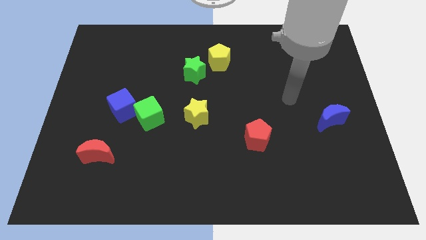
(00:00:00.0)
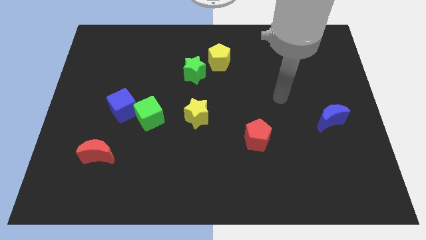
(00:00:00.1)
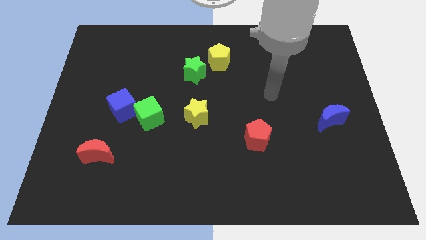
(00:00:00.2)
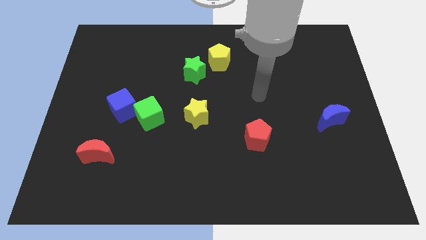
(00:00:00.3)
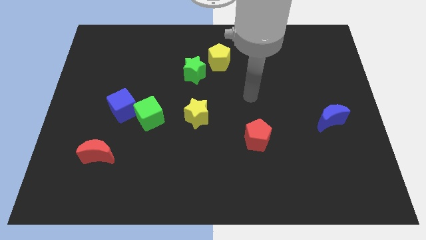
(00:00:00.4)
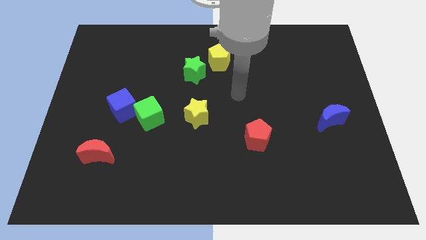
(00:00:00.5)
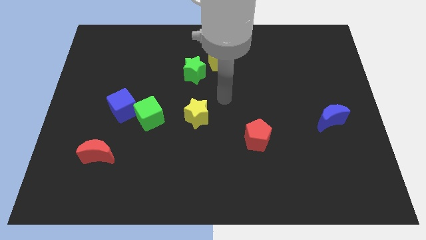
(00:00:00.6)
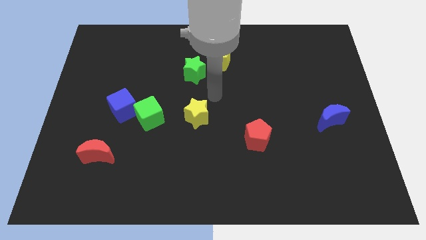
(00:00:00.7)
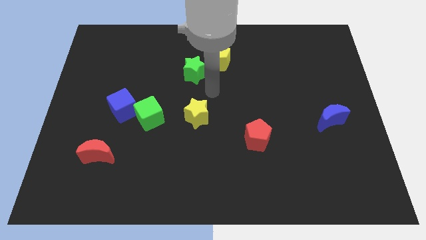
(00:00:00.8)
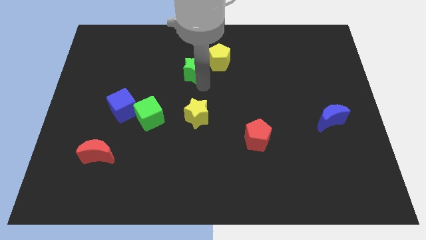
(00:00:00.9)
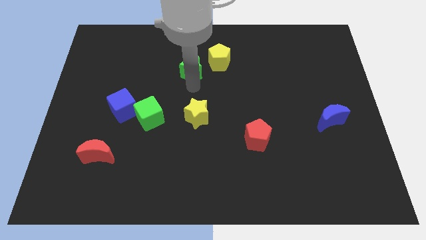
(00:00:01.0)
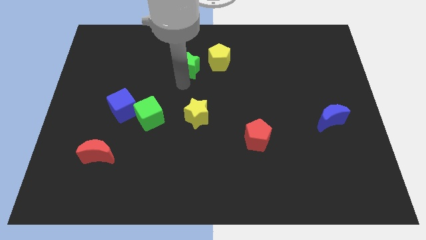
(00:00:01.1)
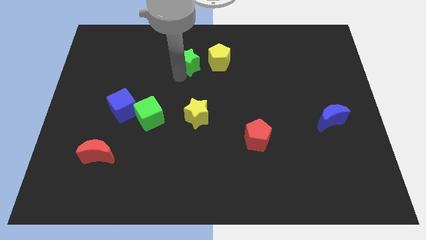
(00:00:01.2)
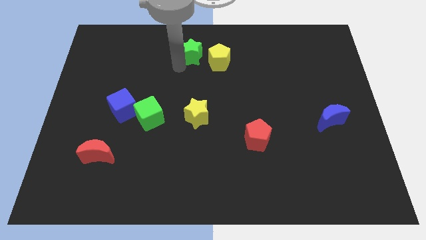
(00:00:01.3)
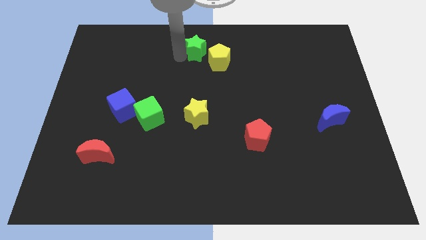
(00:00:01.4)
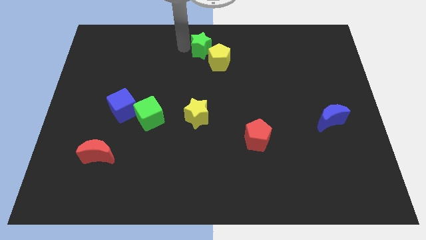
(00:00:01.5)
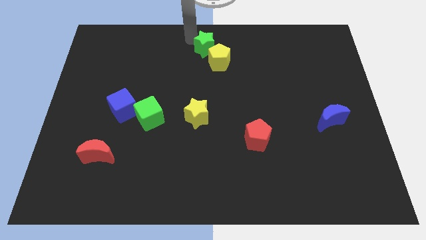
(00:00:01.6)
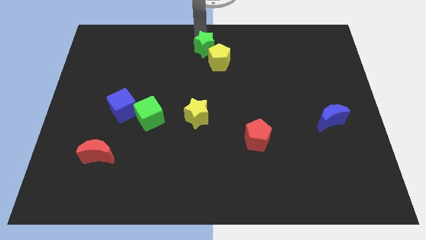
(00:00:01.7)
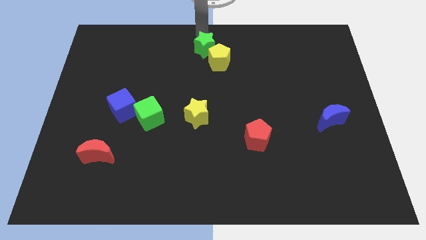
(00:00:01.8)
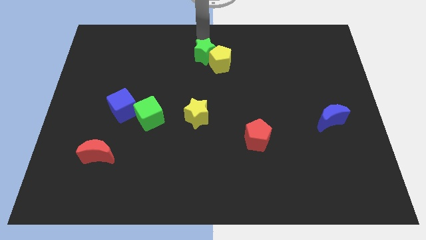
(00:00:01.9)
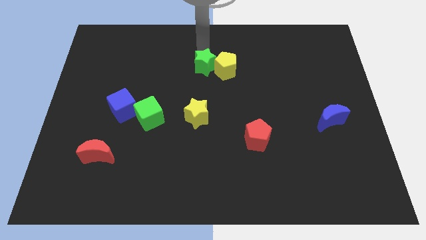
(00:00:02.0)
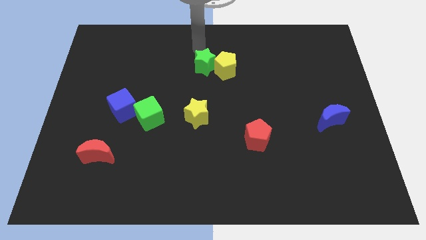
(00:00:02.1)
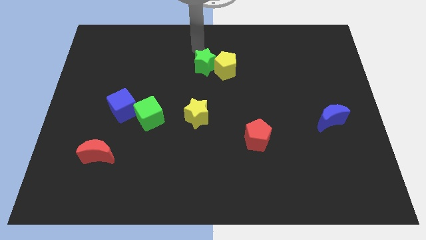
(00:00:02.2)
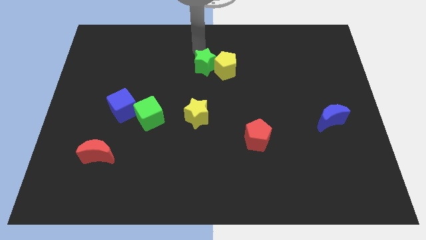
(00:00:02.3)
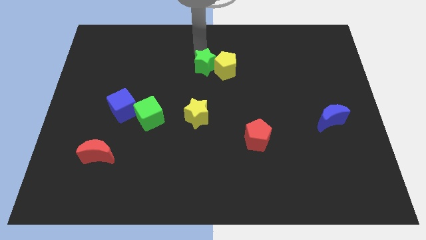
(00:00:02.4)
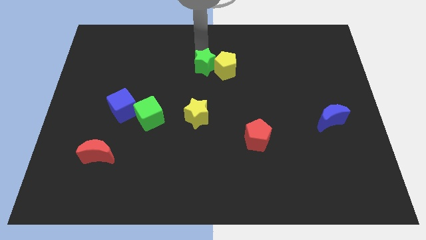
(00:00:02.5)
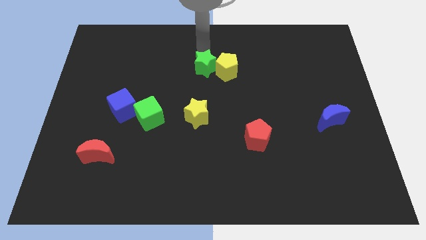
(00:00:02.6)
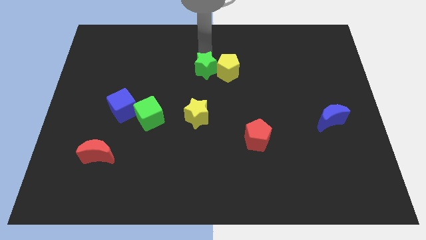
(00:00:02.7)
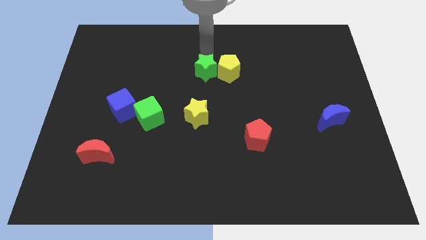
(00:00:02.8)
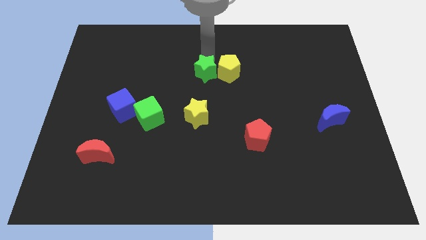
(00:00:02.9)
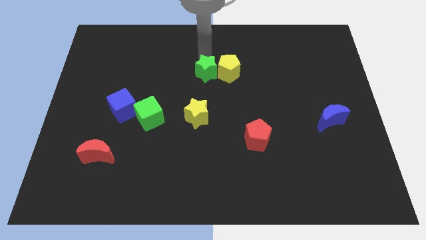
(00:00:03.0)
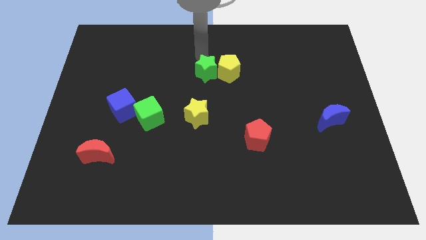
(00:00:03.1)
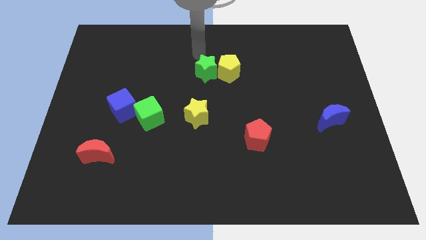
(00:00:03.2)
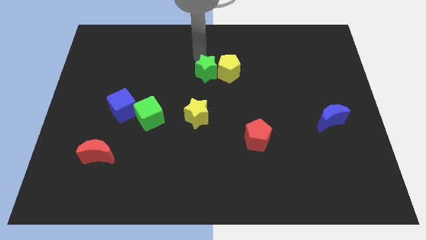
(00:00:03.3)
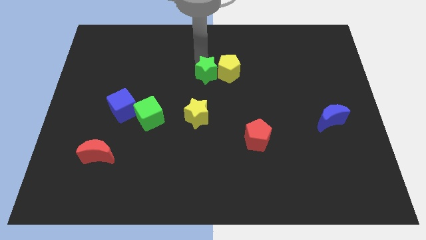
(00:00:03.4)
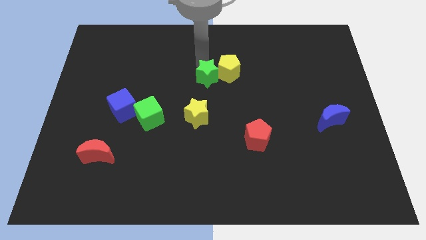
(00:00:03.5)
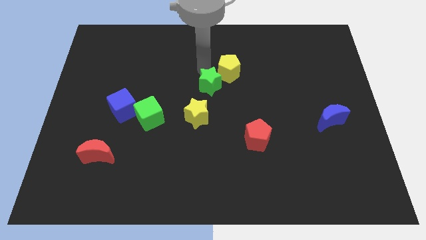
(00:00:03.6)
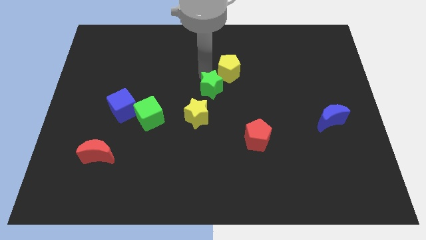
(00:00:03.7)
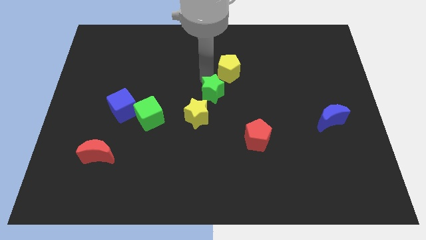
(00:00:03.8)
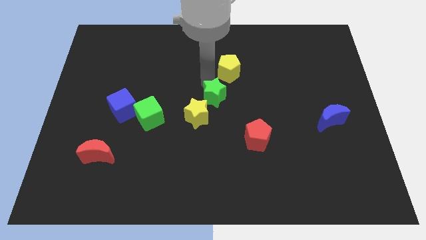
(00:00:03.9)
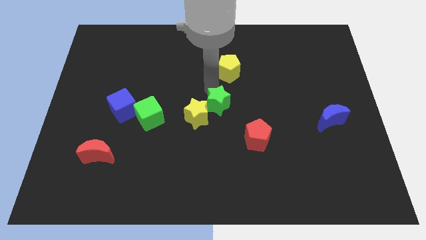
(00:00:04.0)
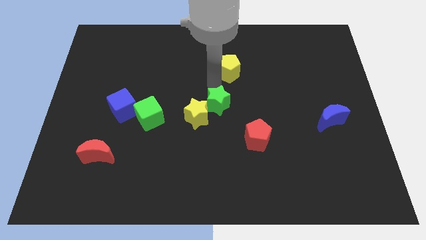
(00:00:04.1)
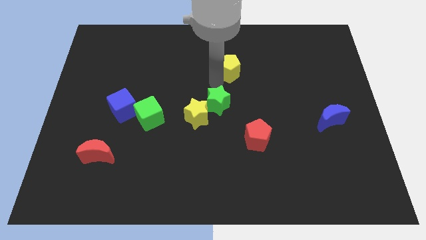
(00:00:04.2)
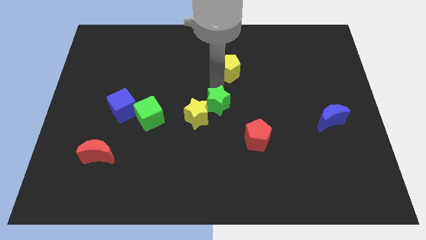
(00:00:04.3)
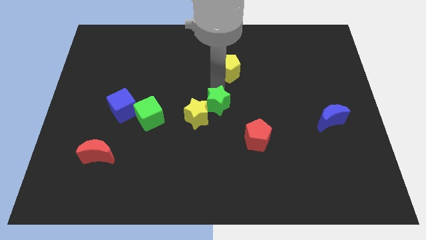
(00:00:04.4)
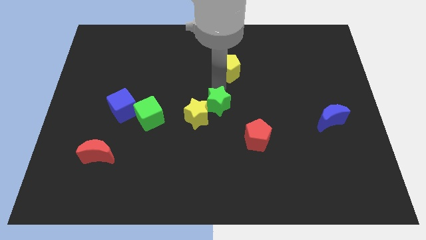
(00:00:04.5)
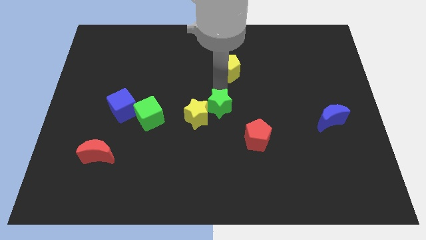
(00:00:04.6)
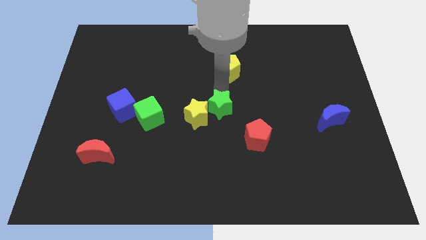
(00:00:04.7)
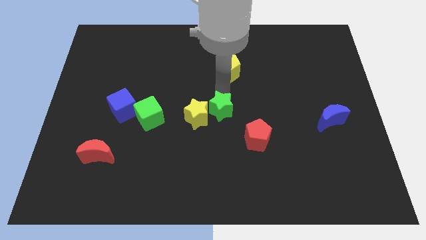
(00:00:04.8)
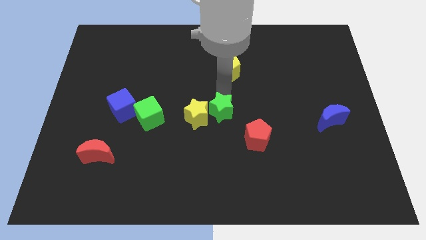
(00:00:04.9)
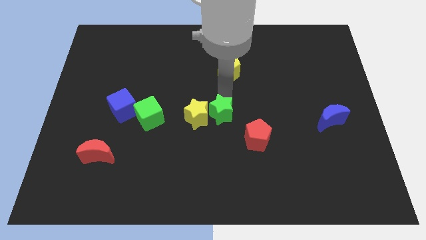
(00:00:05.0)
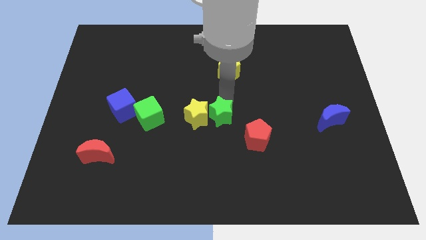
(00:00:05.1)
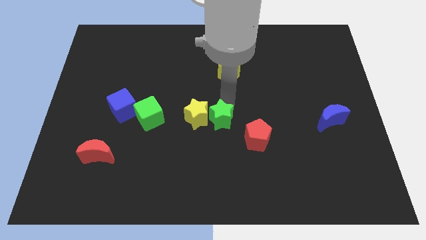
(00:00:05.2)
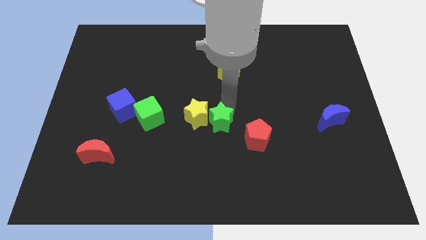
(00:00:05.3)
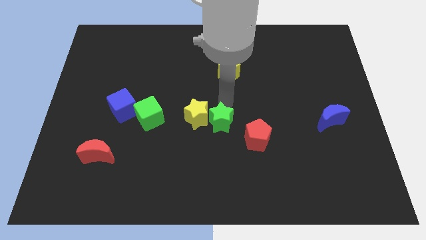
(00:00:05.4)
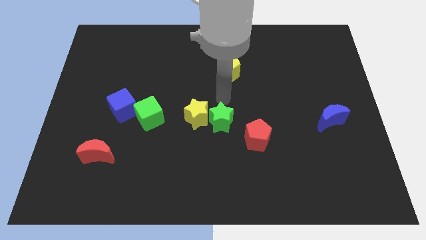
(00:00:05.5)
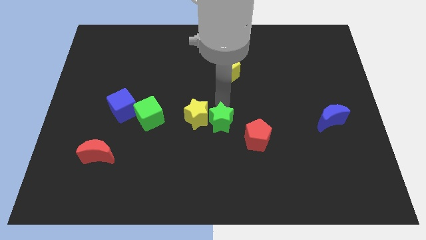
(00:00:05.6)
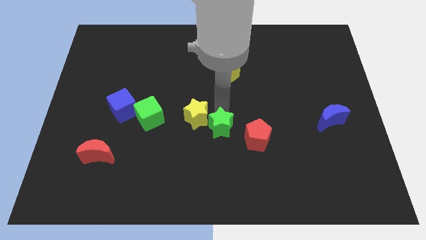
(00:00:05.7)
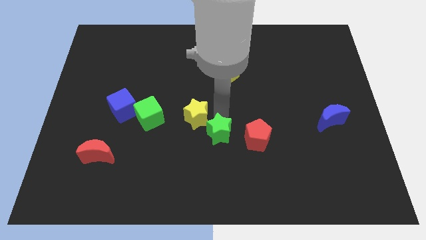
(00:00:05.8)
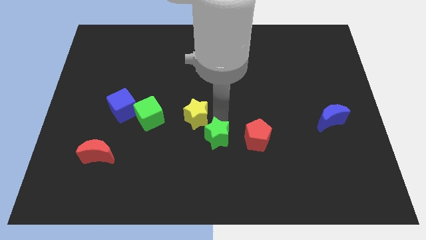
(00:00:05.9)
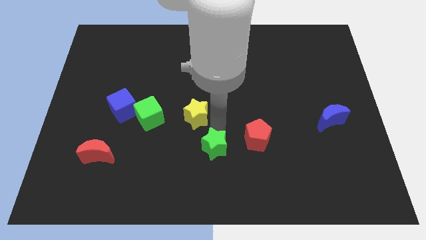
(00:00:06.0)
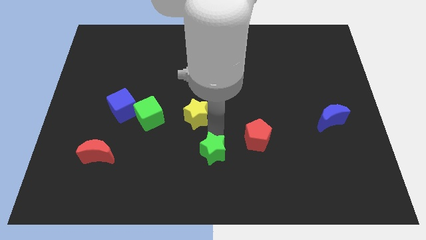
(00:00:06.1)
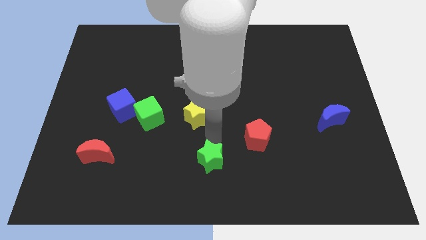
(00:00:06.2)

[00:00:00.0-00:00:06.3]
put the green star to the bottom
